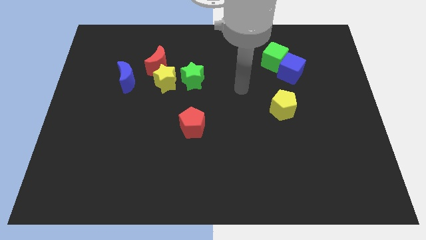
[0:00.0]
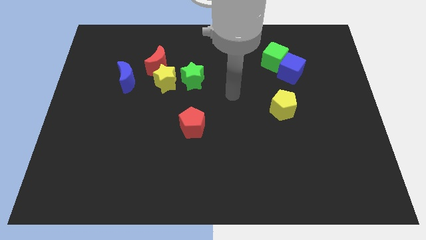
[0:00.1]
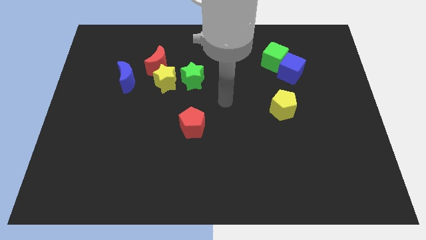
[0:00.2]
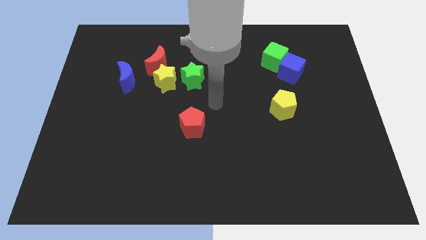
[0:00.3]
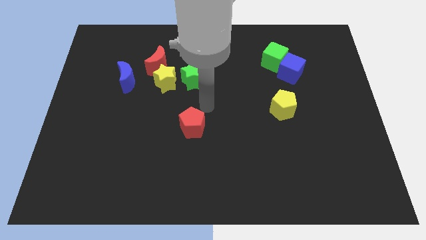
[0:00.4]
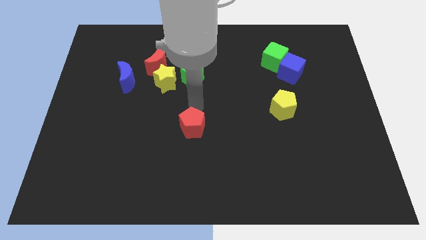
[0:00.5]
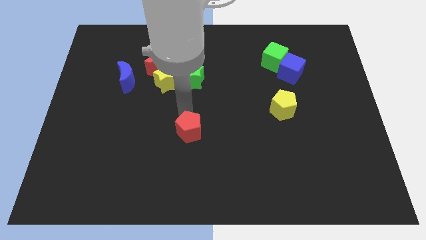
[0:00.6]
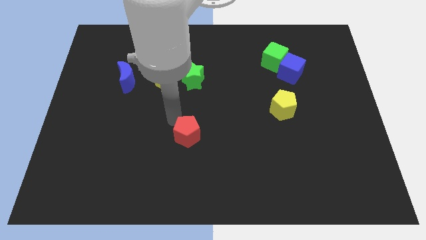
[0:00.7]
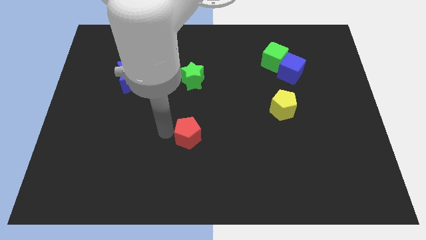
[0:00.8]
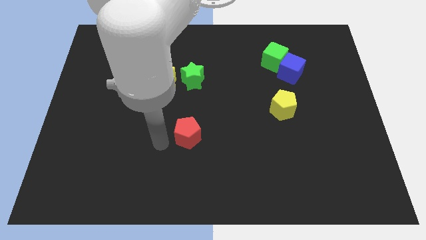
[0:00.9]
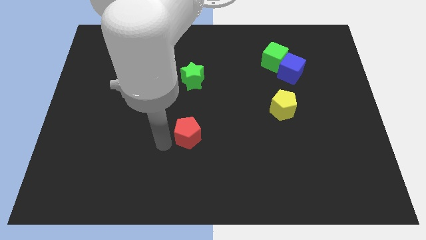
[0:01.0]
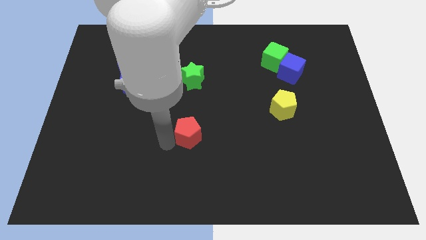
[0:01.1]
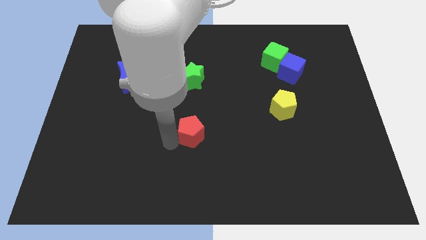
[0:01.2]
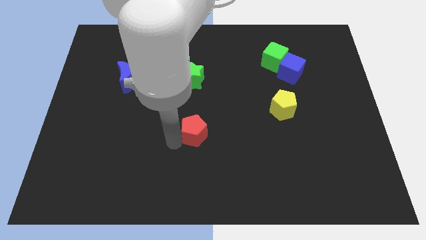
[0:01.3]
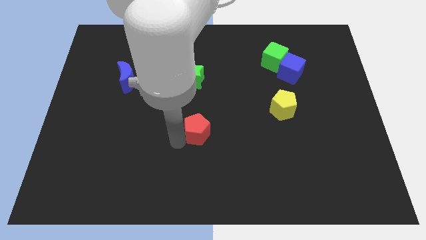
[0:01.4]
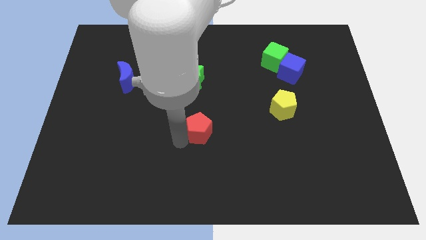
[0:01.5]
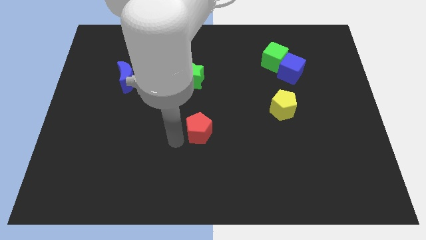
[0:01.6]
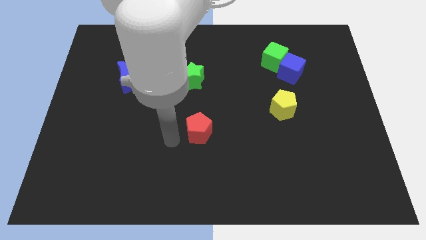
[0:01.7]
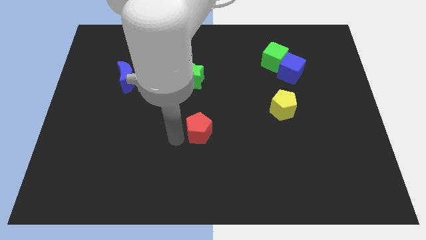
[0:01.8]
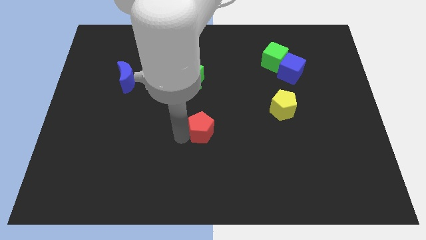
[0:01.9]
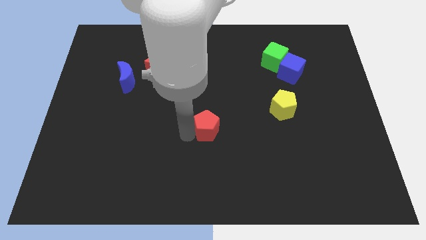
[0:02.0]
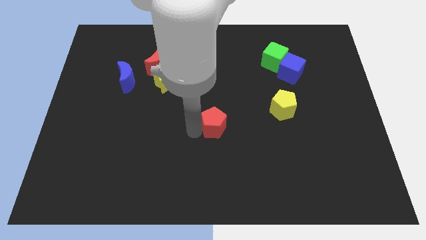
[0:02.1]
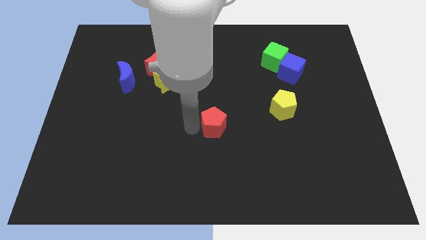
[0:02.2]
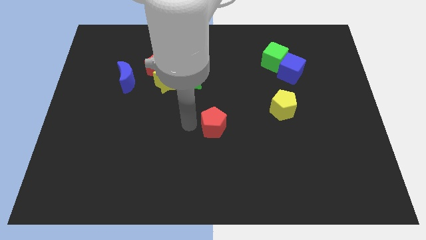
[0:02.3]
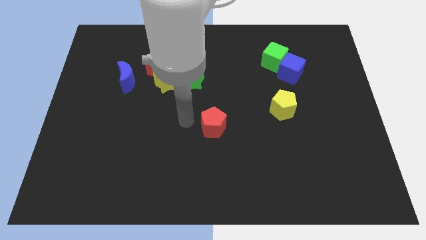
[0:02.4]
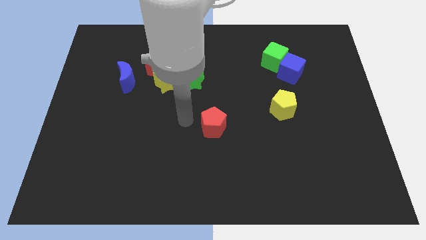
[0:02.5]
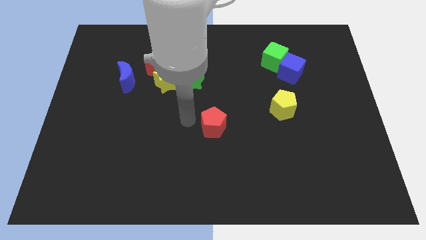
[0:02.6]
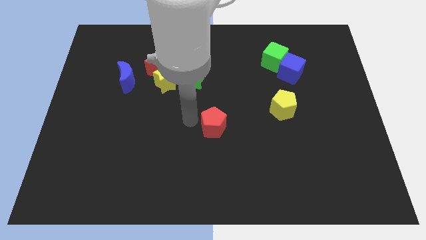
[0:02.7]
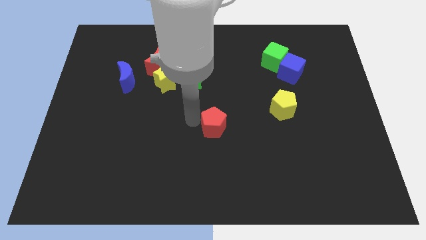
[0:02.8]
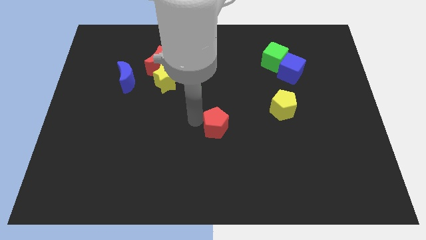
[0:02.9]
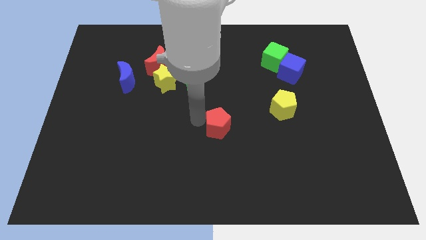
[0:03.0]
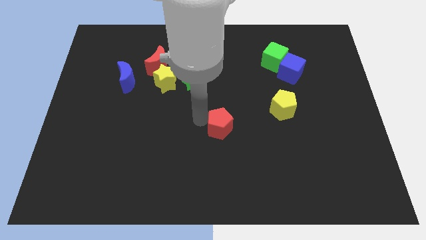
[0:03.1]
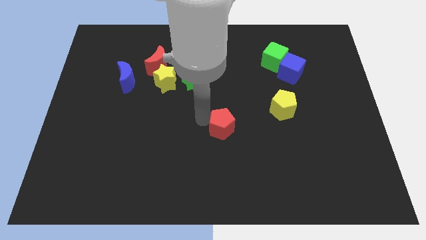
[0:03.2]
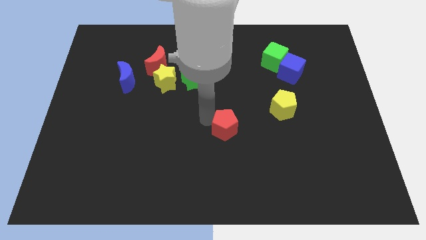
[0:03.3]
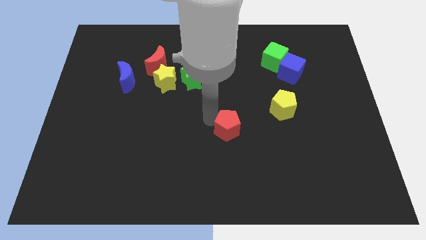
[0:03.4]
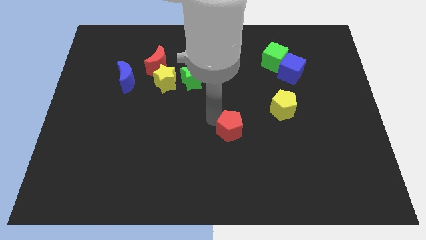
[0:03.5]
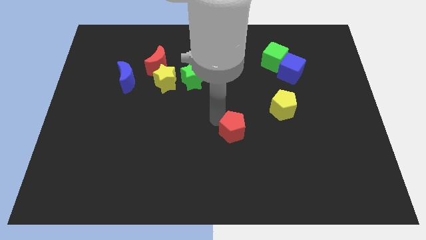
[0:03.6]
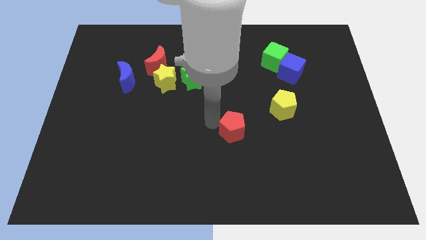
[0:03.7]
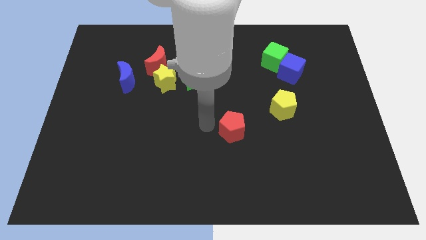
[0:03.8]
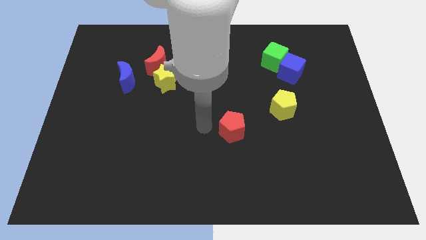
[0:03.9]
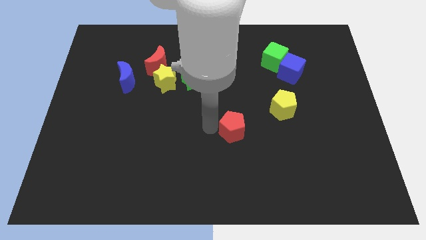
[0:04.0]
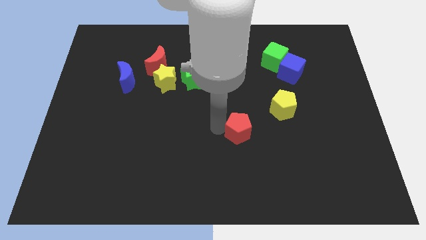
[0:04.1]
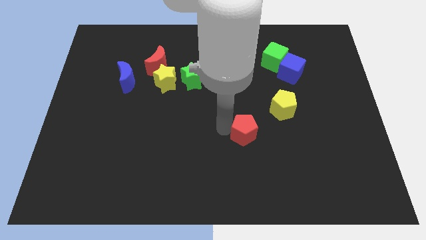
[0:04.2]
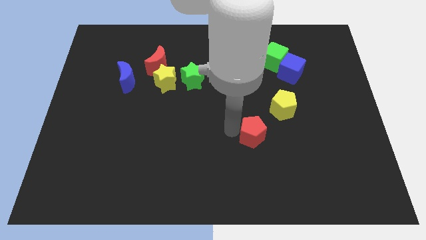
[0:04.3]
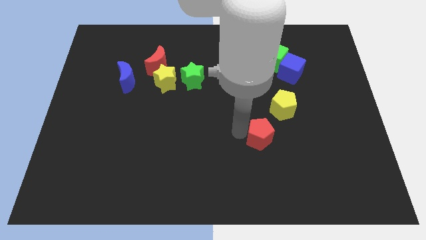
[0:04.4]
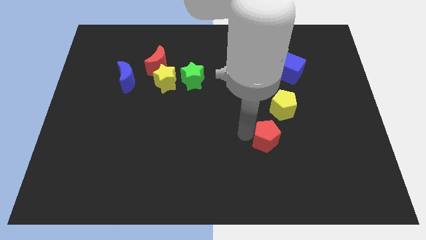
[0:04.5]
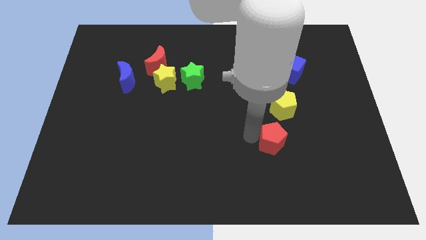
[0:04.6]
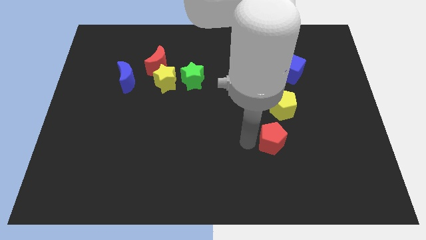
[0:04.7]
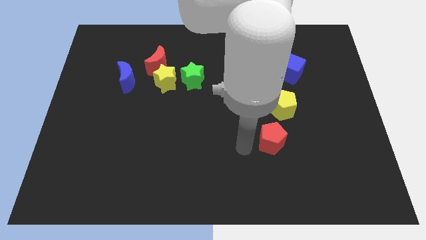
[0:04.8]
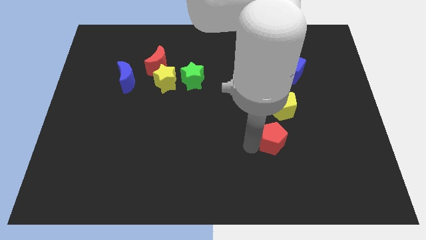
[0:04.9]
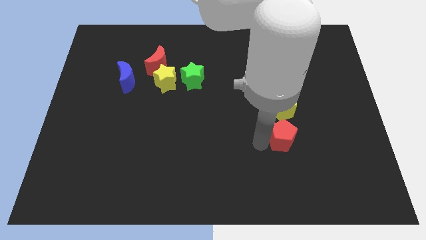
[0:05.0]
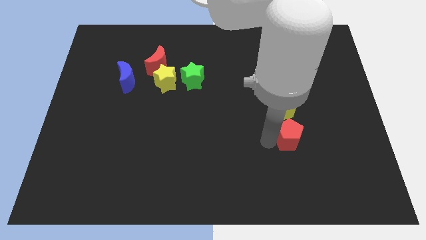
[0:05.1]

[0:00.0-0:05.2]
push the red pentagon to the right

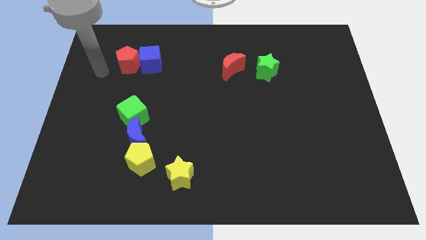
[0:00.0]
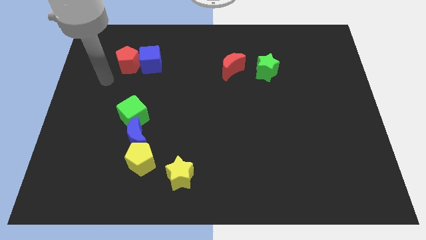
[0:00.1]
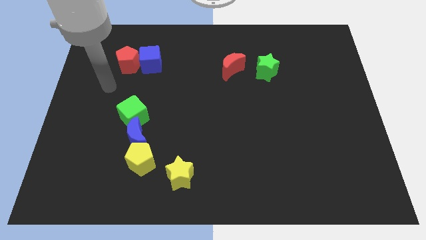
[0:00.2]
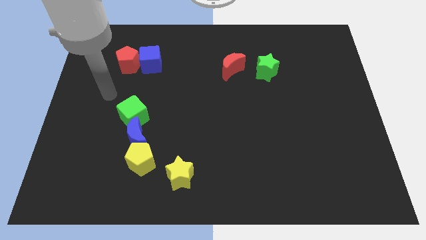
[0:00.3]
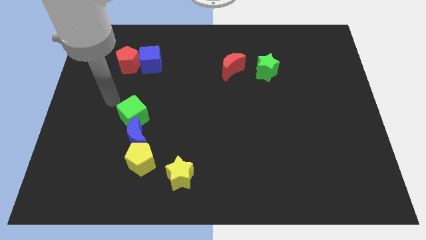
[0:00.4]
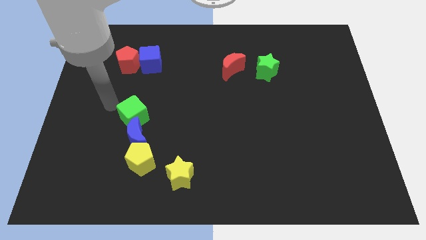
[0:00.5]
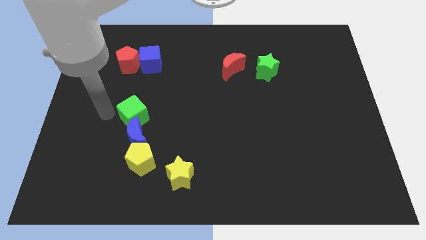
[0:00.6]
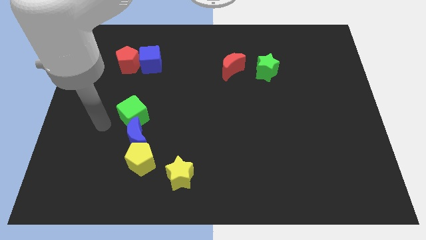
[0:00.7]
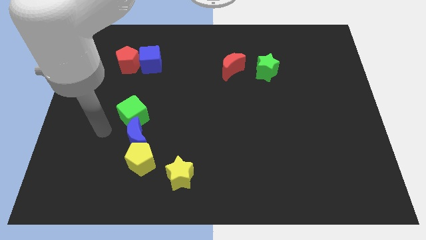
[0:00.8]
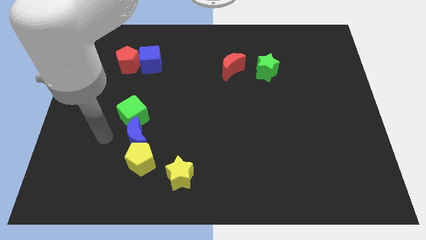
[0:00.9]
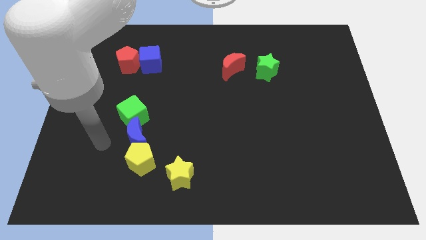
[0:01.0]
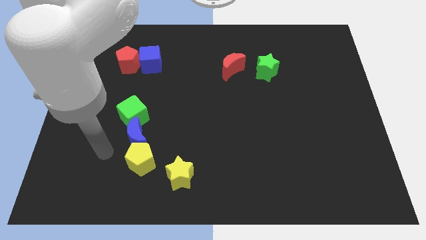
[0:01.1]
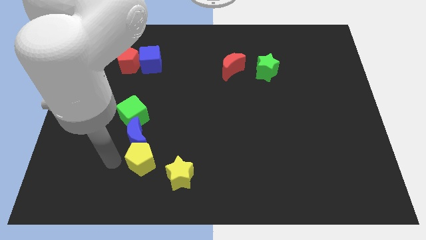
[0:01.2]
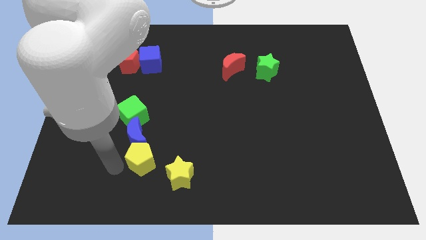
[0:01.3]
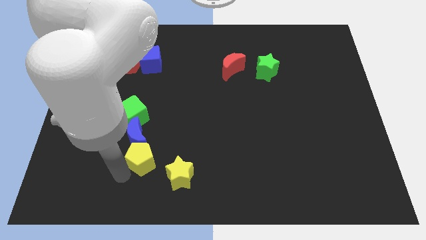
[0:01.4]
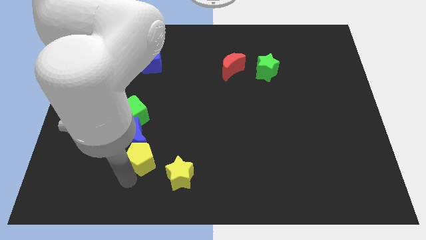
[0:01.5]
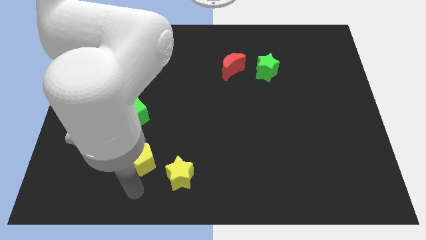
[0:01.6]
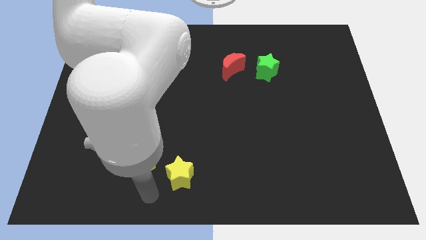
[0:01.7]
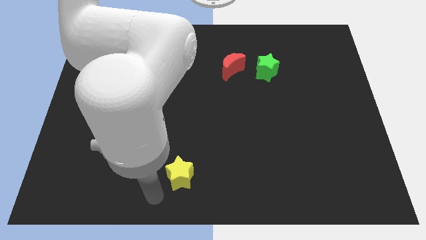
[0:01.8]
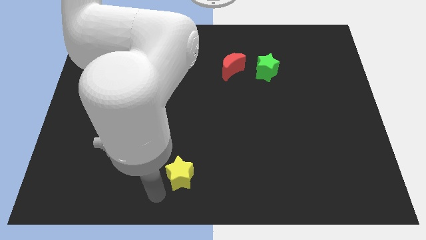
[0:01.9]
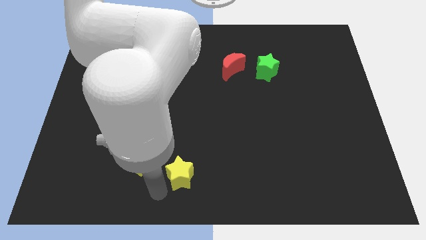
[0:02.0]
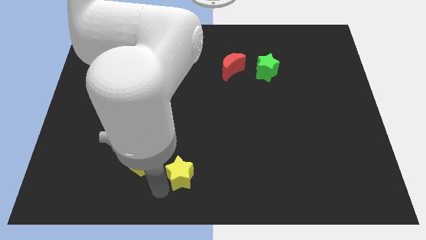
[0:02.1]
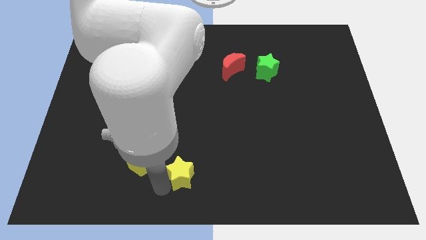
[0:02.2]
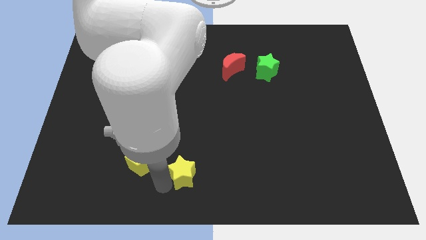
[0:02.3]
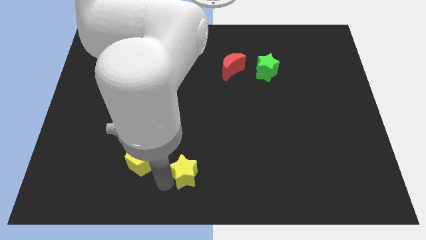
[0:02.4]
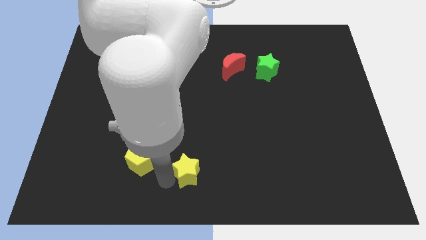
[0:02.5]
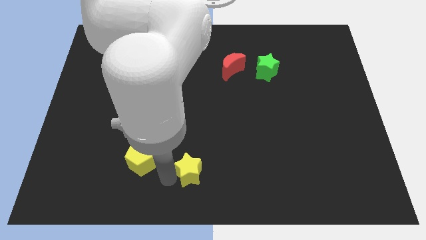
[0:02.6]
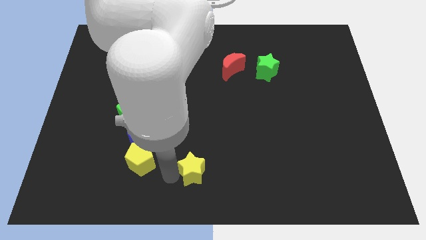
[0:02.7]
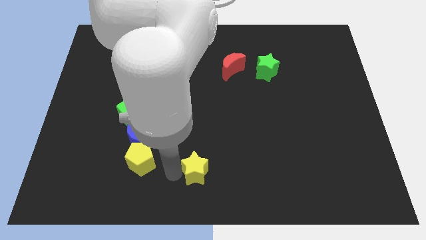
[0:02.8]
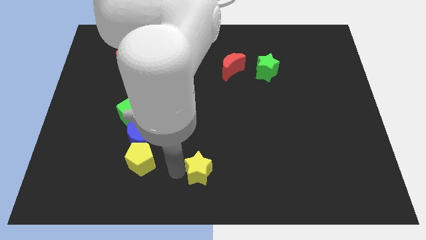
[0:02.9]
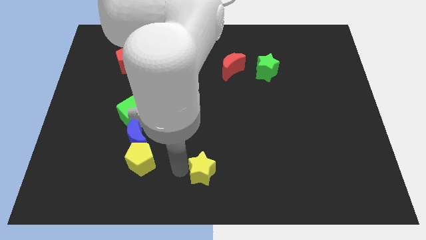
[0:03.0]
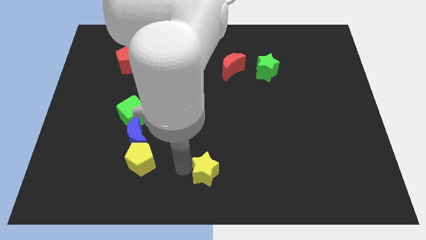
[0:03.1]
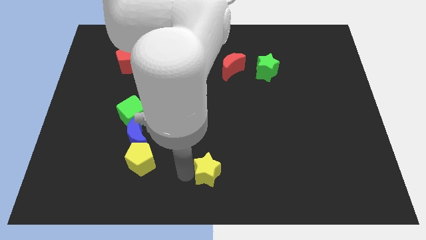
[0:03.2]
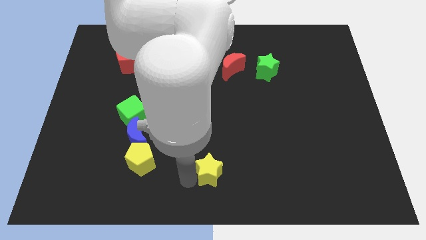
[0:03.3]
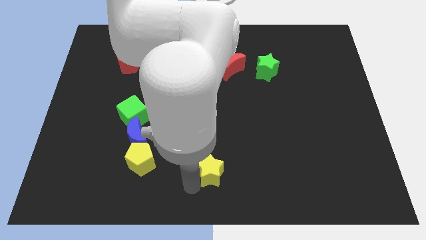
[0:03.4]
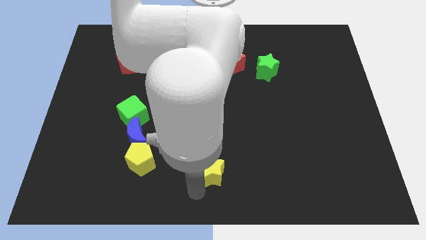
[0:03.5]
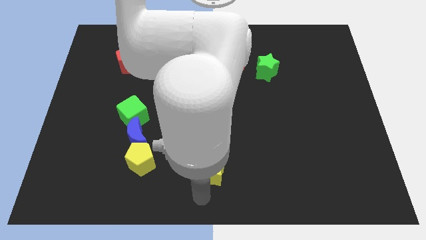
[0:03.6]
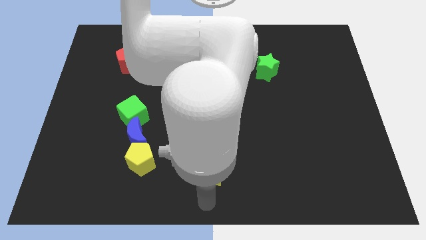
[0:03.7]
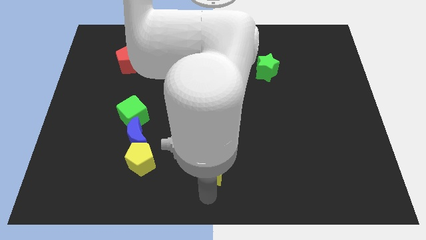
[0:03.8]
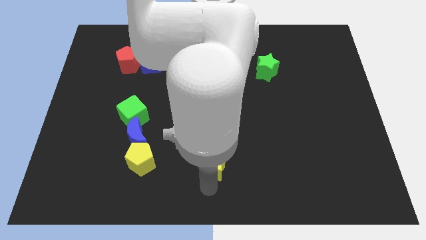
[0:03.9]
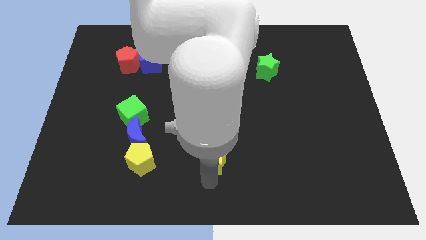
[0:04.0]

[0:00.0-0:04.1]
push the yellow star diagonally upwards and right a little
